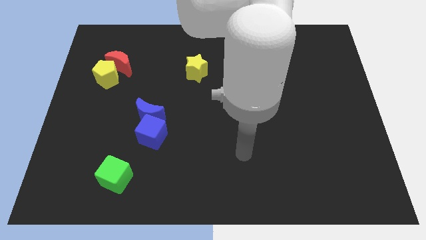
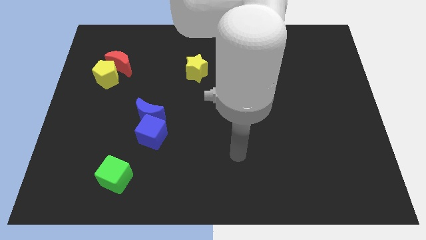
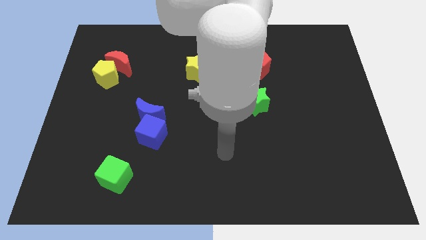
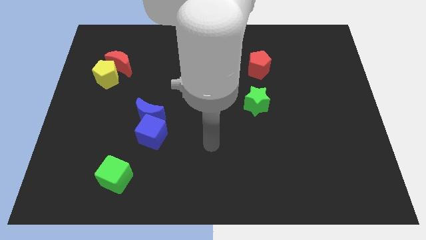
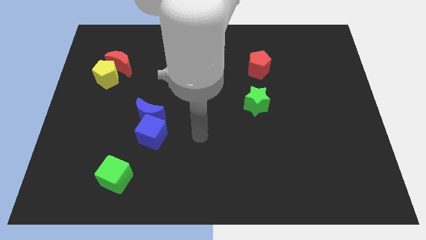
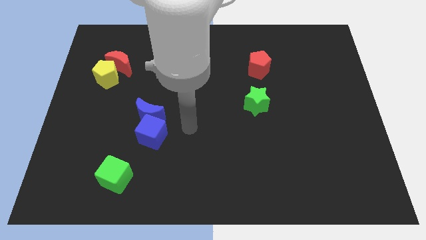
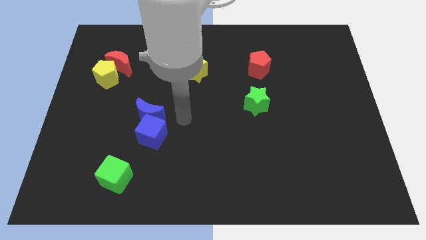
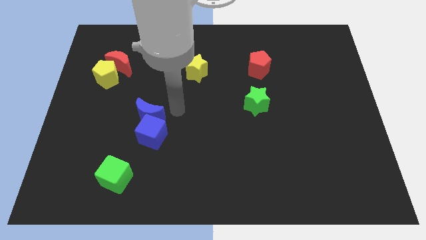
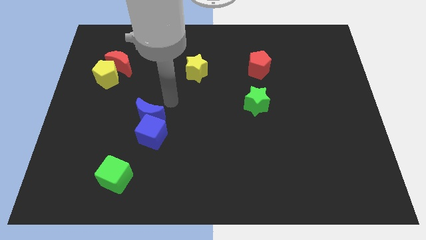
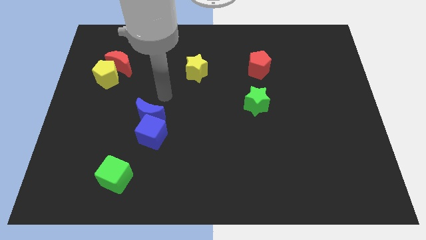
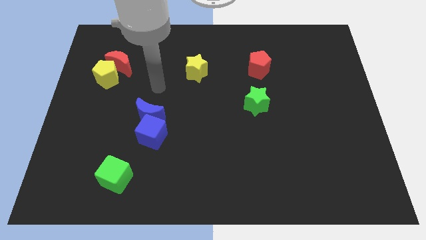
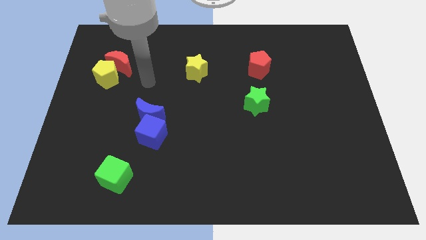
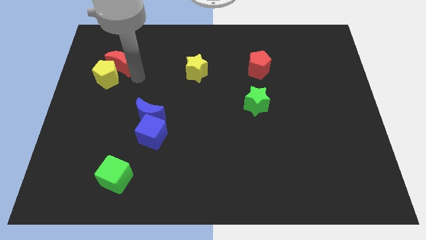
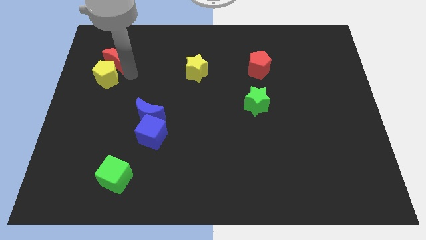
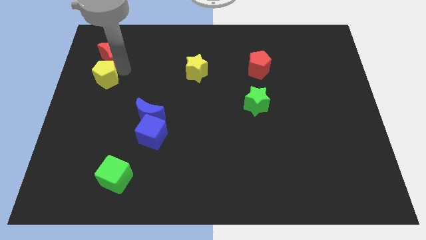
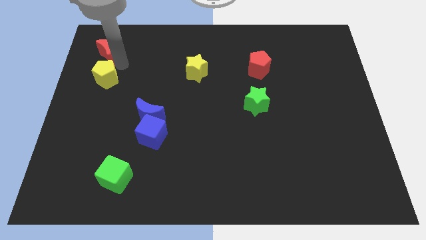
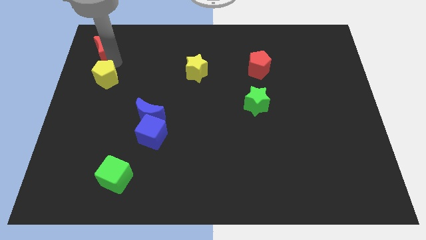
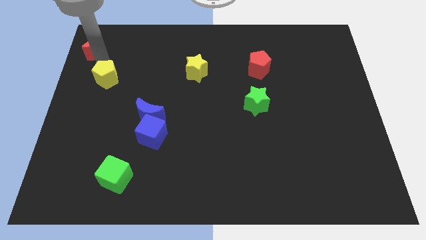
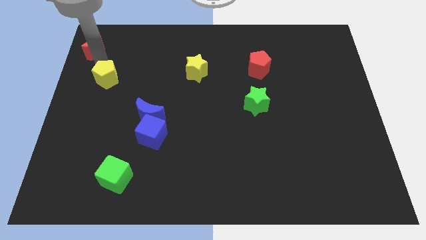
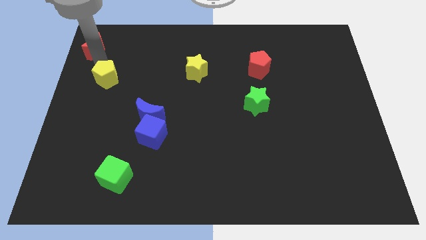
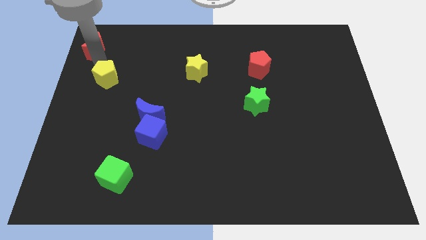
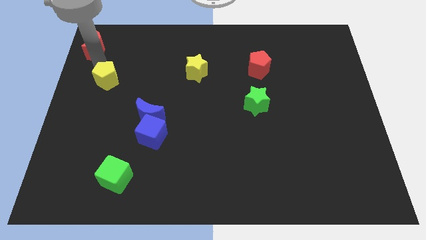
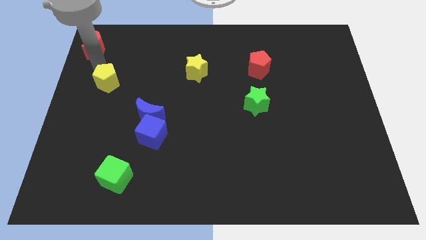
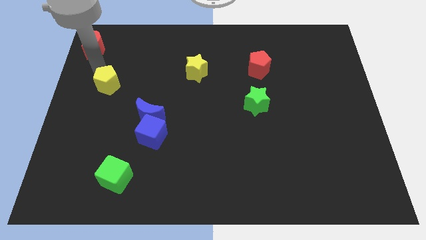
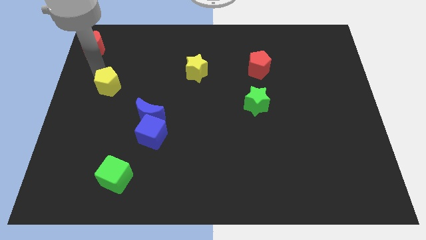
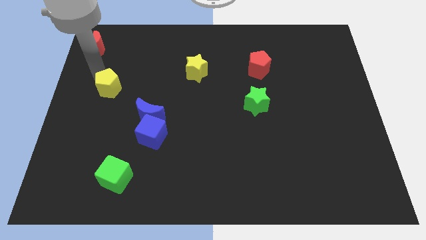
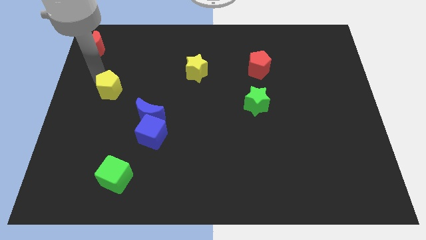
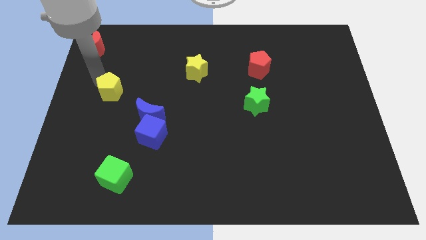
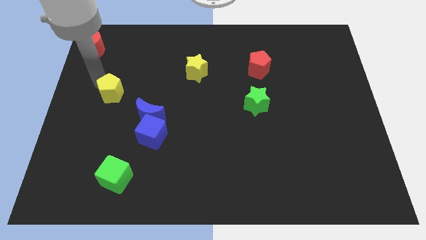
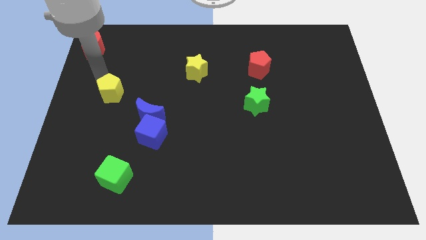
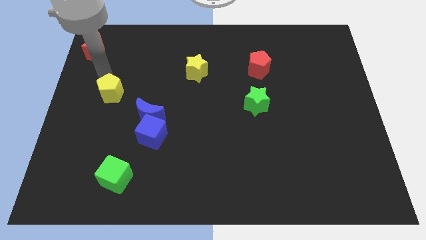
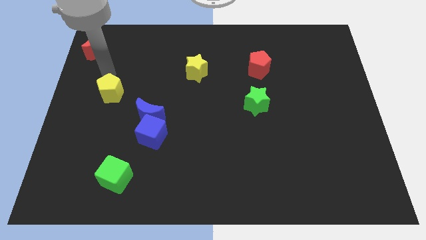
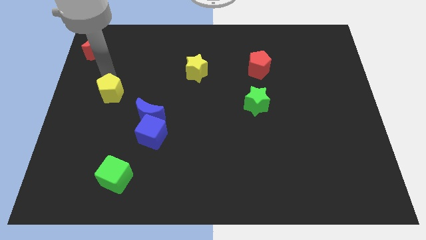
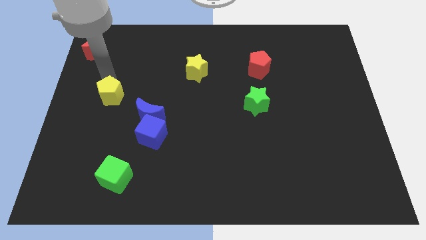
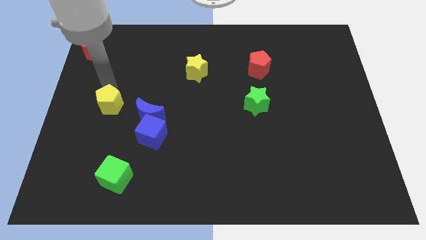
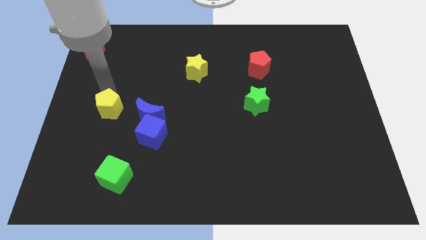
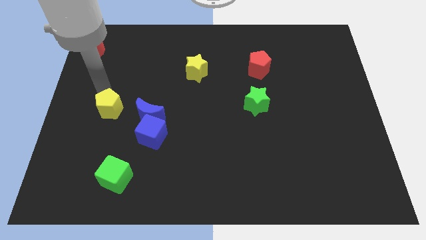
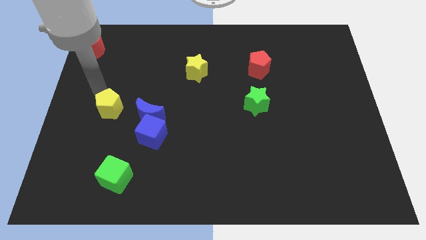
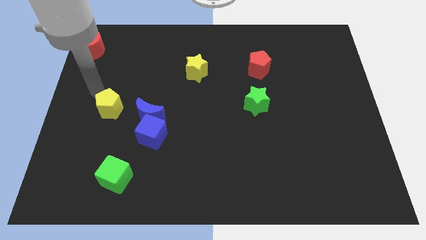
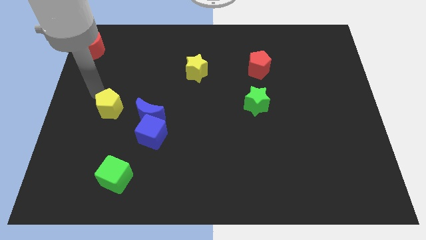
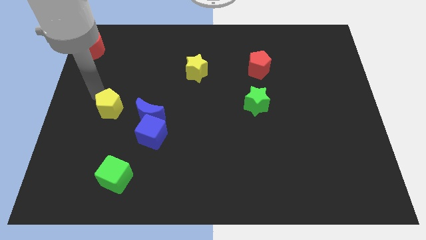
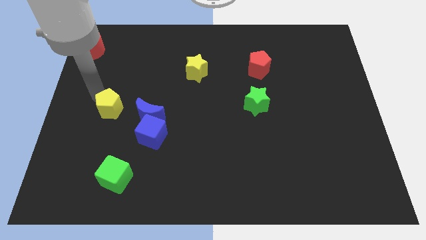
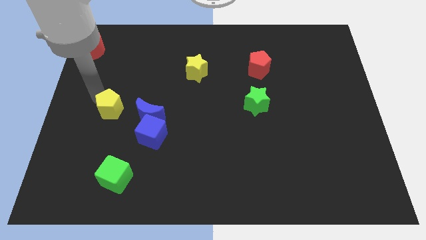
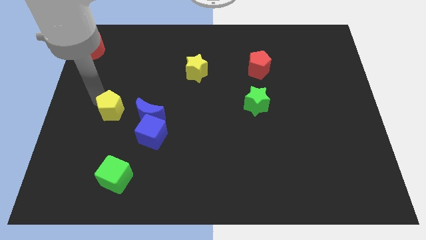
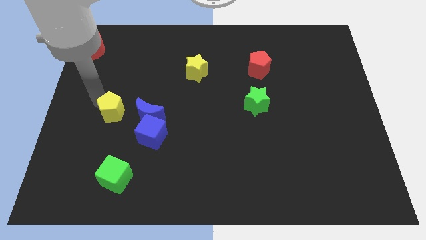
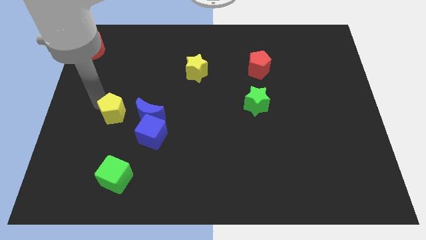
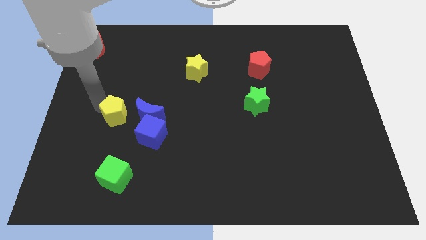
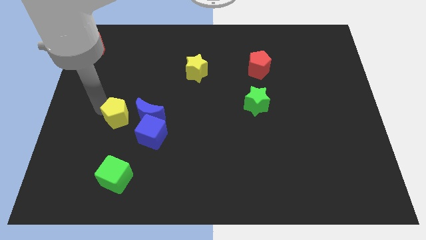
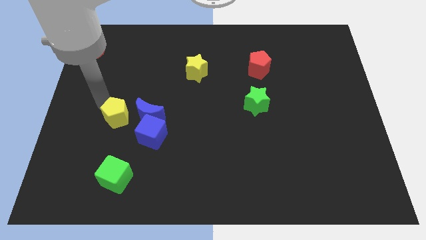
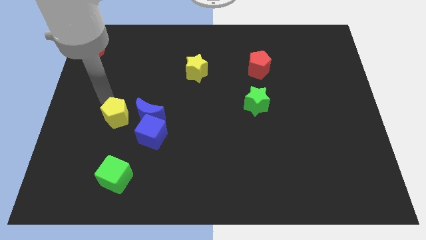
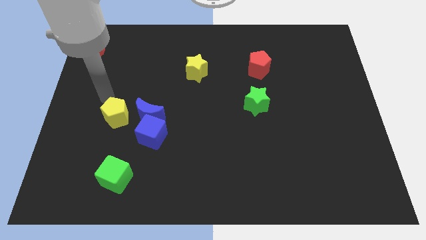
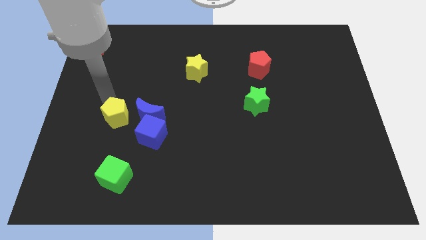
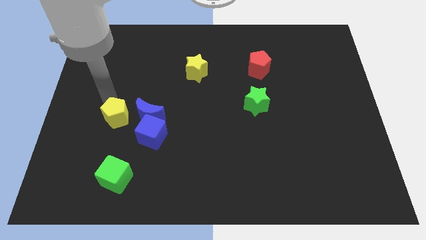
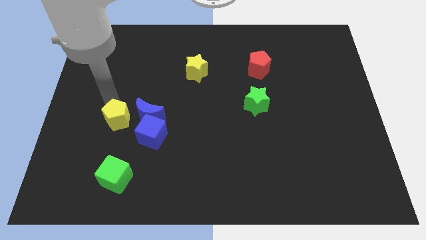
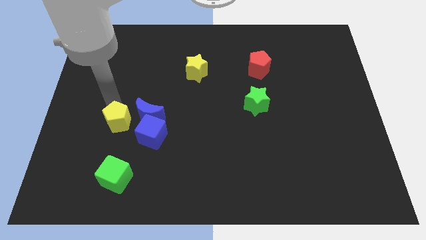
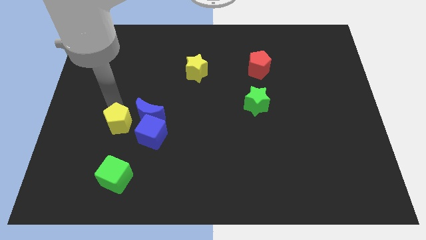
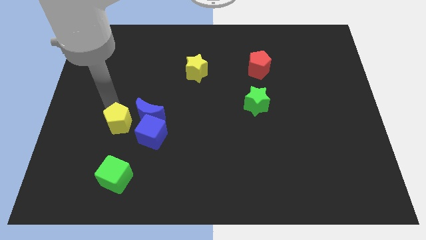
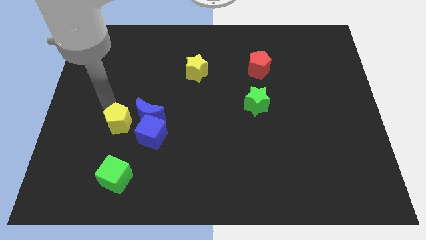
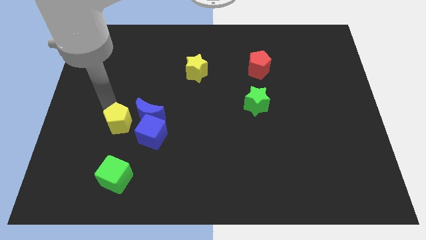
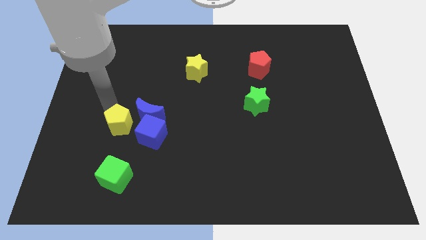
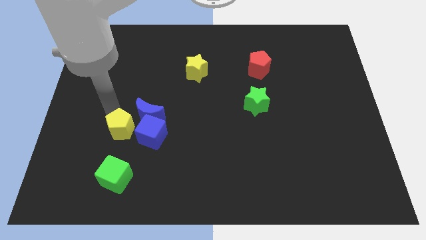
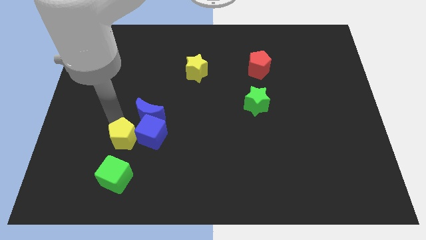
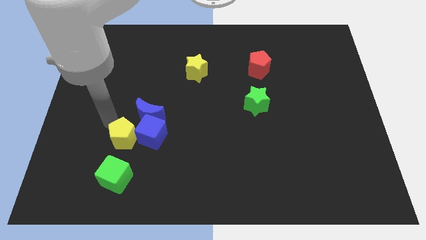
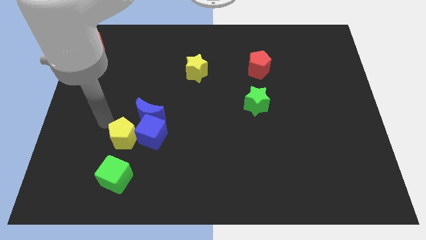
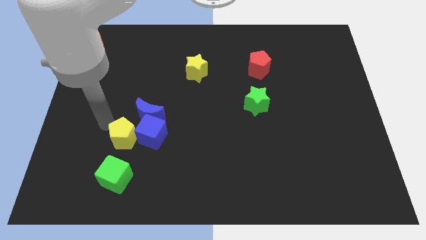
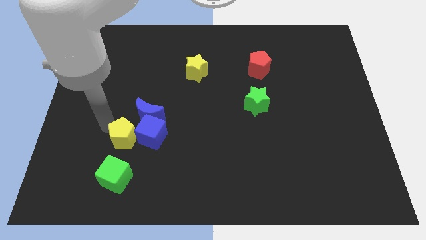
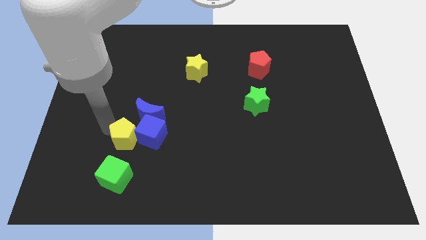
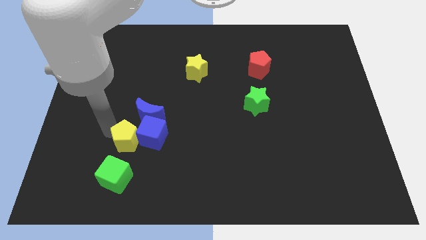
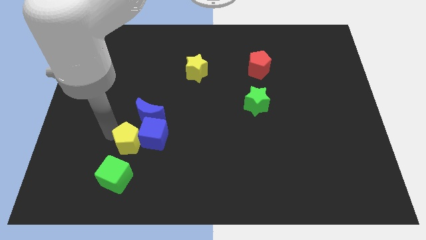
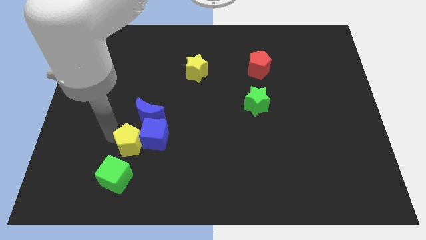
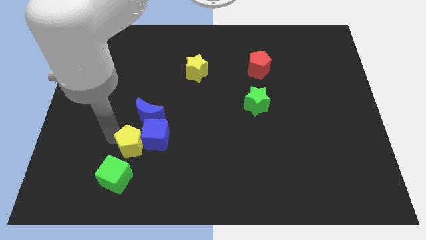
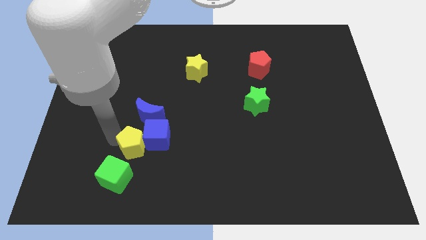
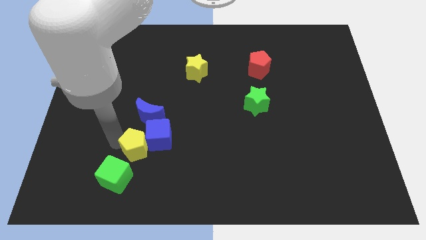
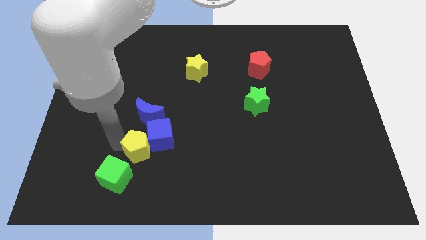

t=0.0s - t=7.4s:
move the yellow pentagon diagonally downwards and right

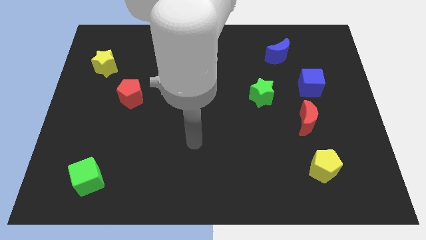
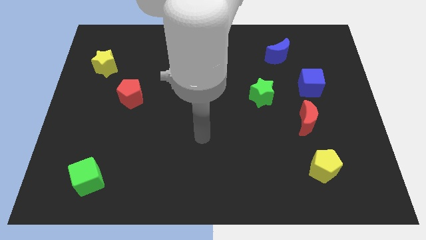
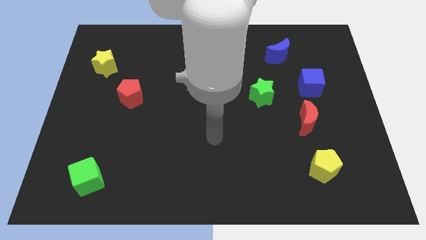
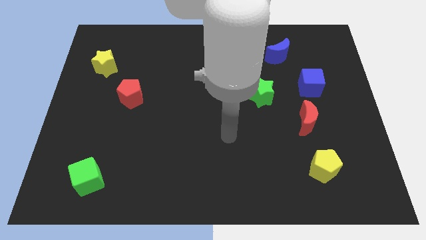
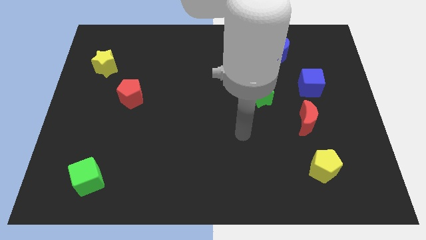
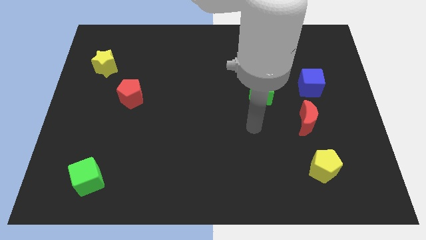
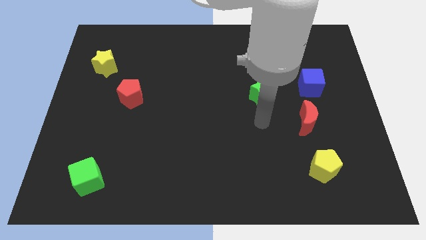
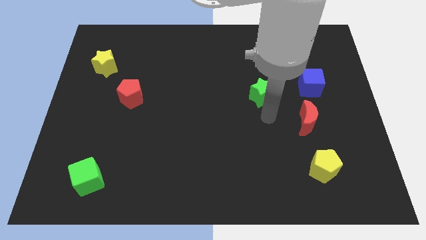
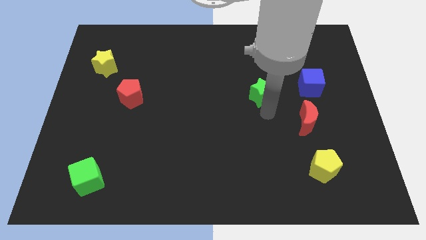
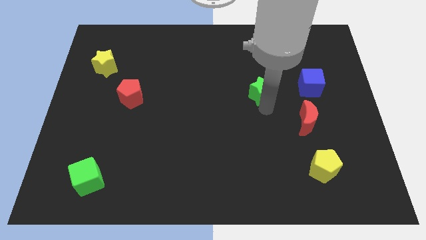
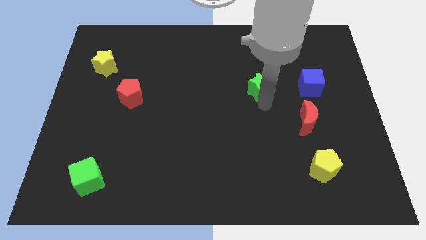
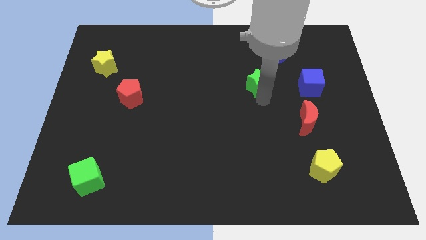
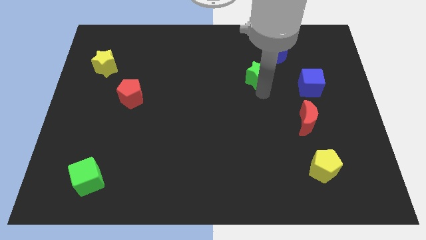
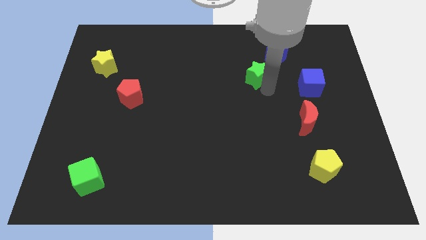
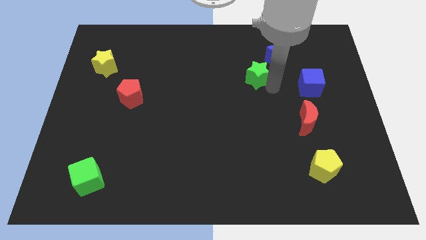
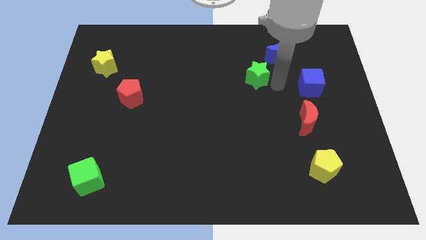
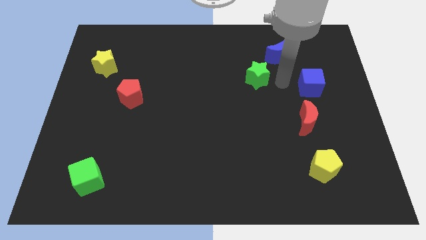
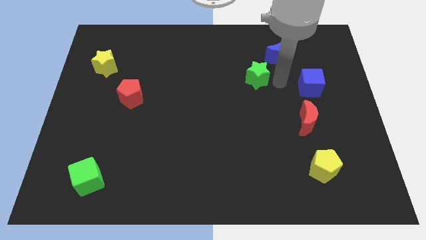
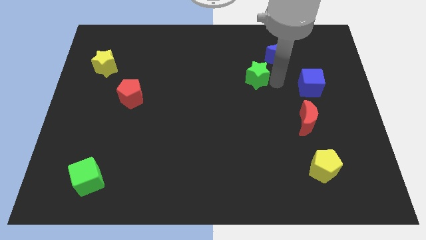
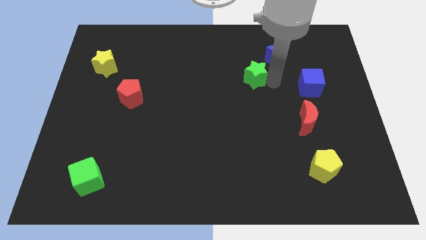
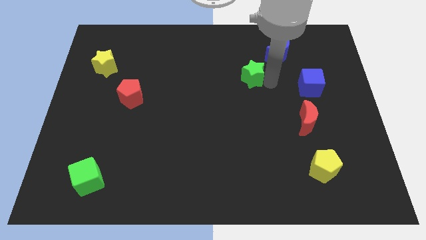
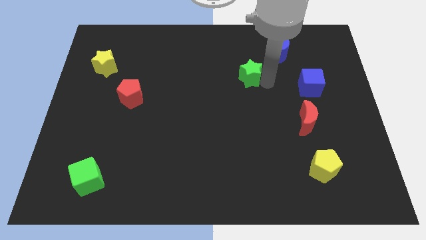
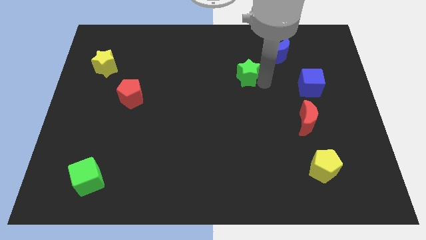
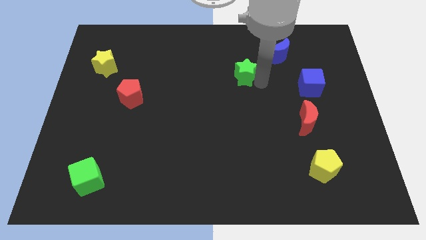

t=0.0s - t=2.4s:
slightly slide the green star diagonally up and to the left
